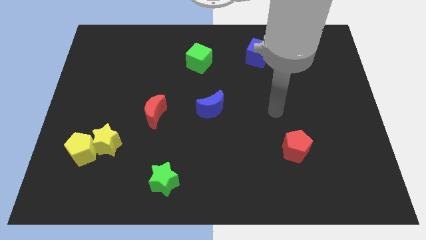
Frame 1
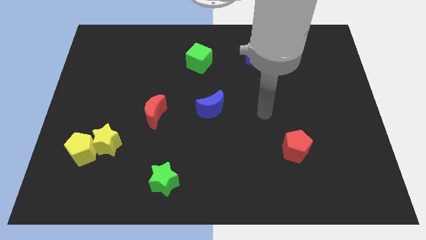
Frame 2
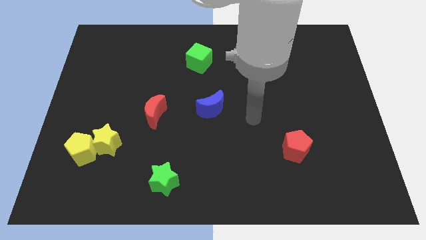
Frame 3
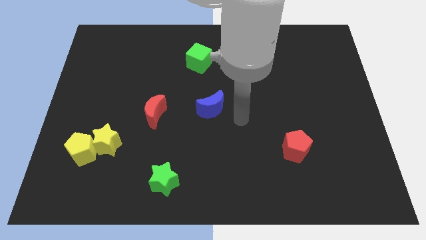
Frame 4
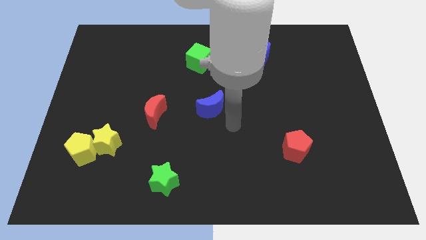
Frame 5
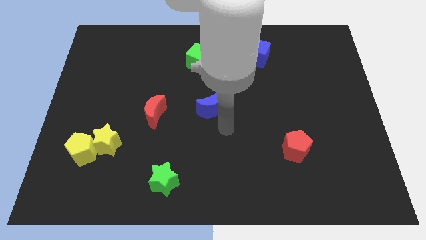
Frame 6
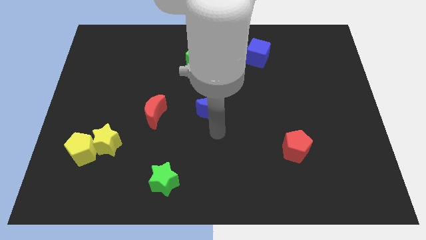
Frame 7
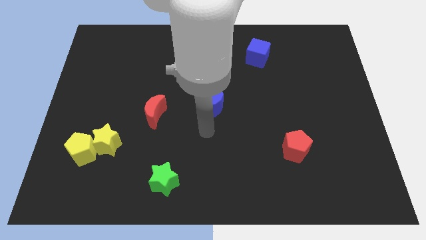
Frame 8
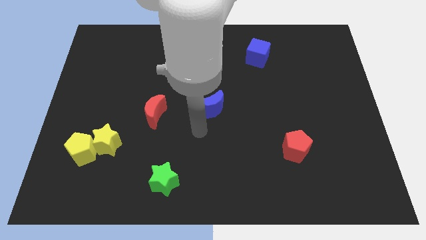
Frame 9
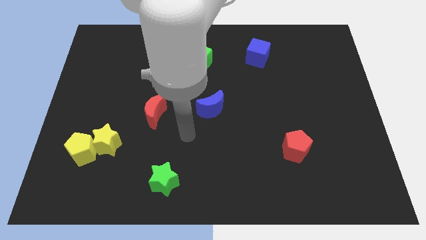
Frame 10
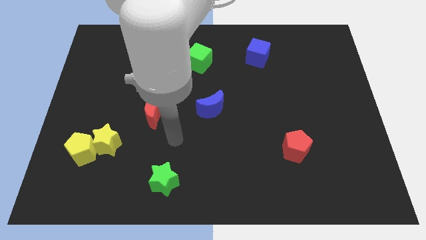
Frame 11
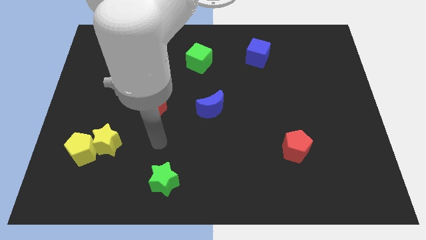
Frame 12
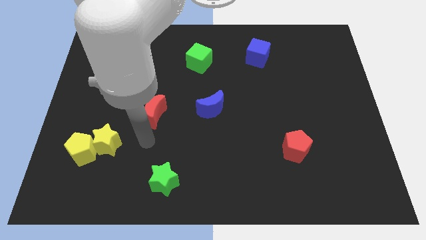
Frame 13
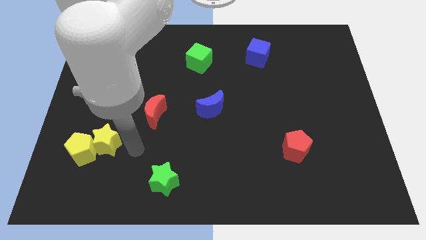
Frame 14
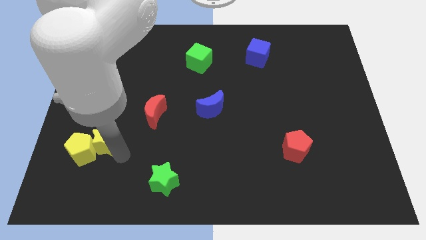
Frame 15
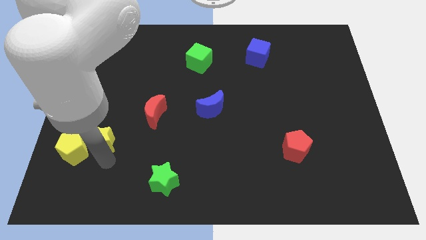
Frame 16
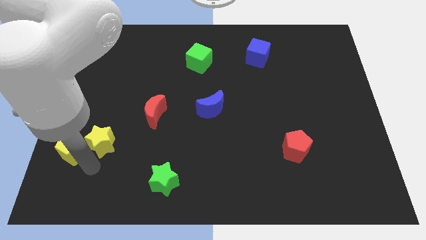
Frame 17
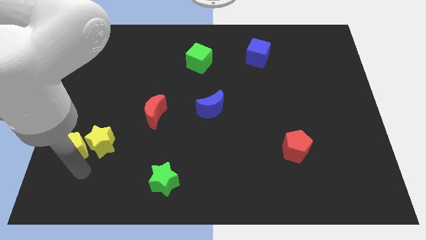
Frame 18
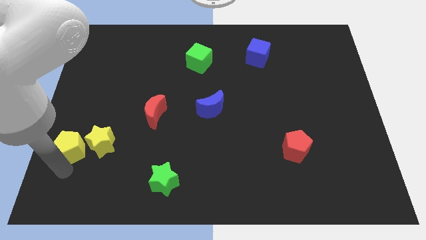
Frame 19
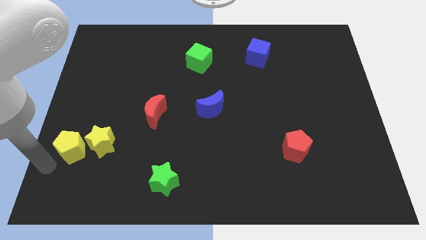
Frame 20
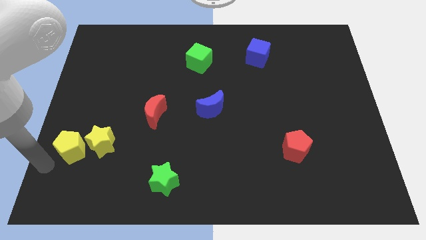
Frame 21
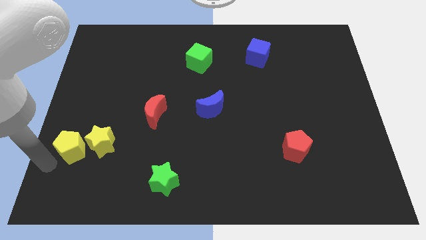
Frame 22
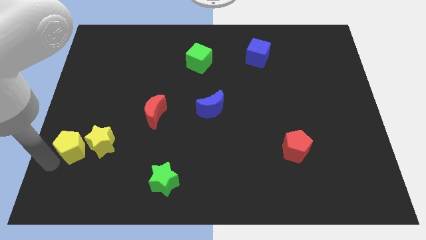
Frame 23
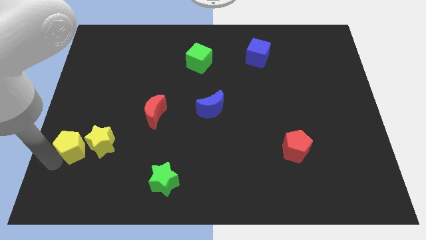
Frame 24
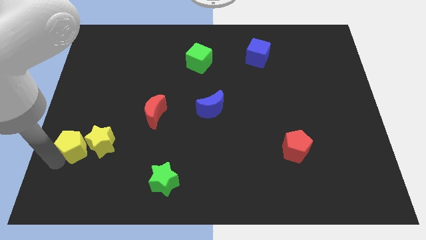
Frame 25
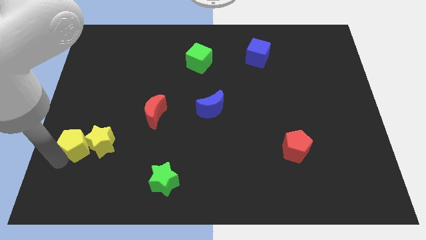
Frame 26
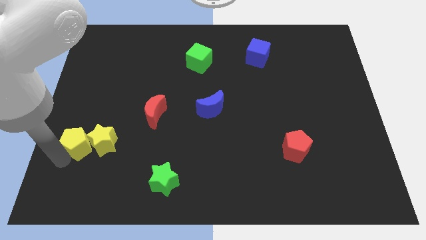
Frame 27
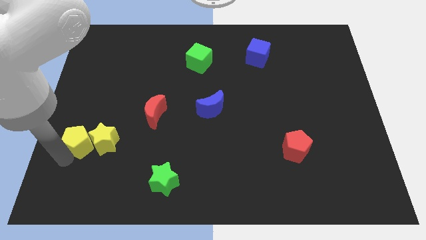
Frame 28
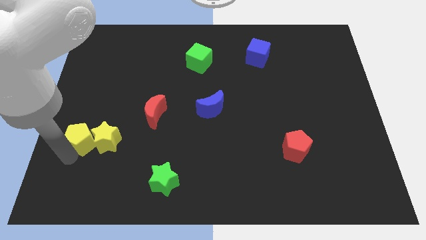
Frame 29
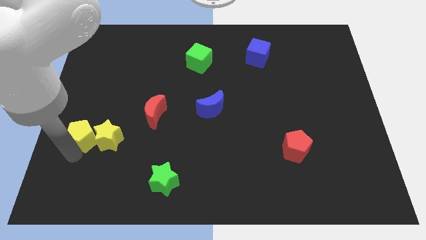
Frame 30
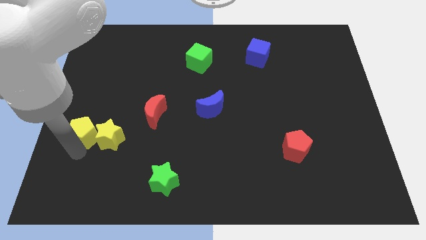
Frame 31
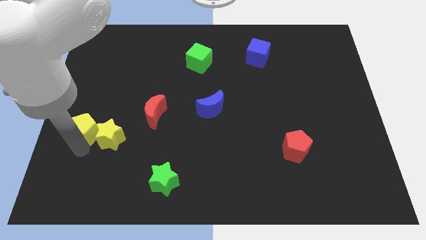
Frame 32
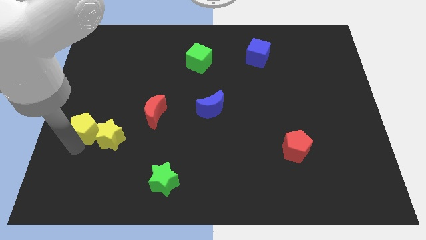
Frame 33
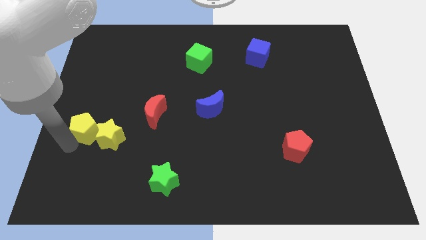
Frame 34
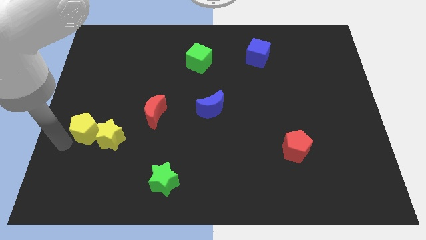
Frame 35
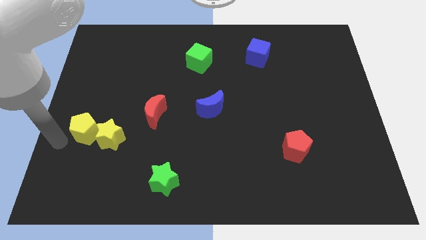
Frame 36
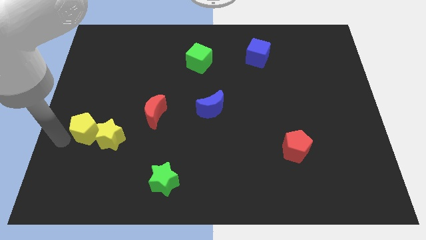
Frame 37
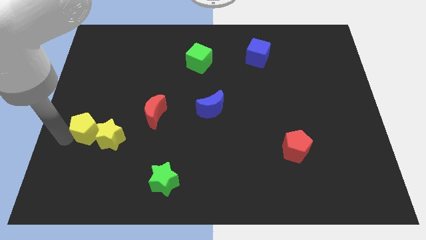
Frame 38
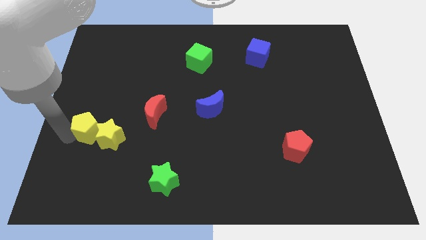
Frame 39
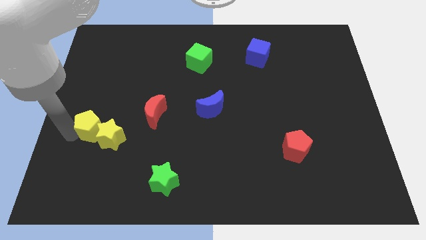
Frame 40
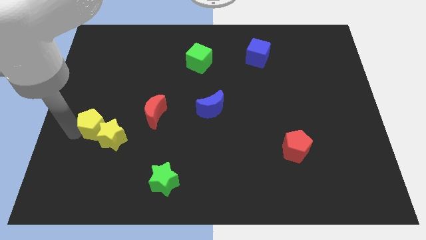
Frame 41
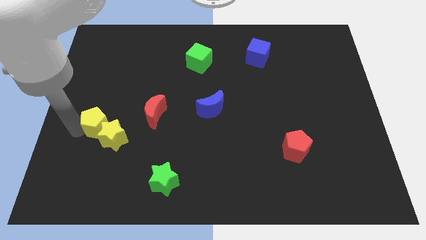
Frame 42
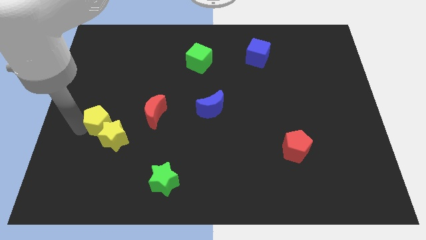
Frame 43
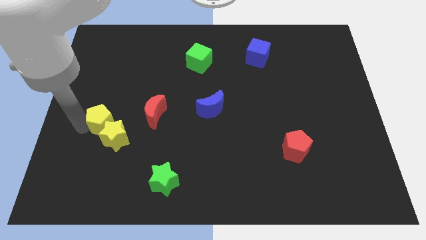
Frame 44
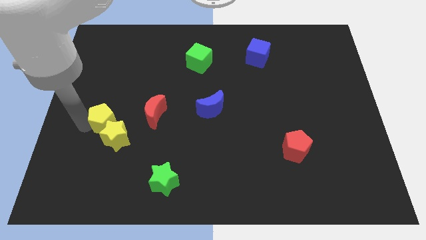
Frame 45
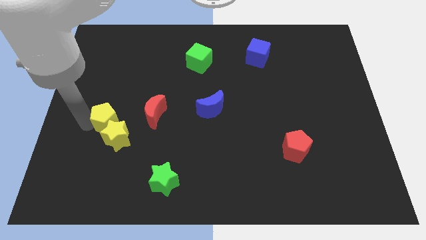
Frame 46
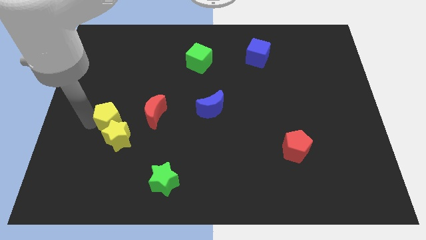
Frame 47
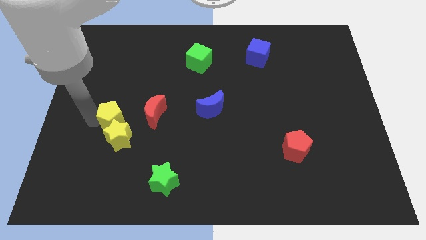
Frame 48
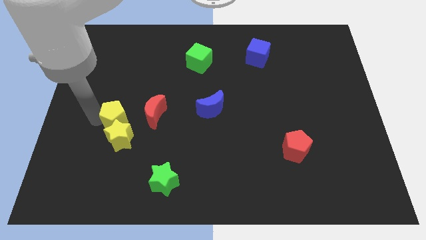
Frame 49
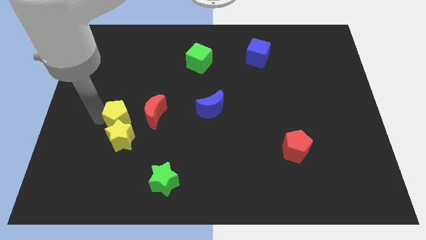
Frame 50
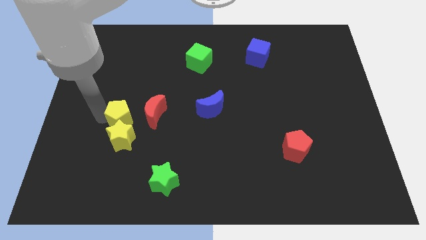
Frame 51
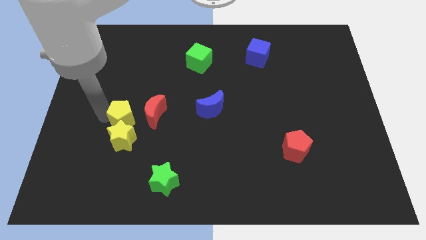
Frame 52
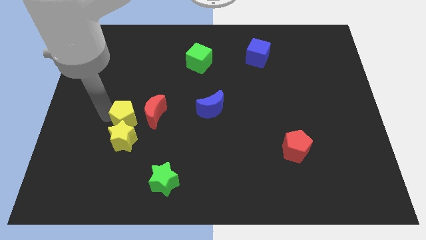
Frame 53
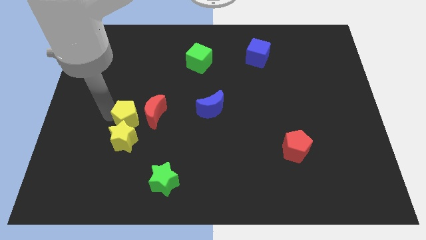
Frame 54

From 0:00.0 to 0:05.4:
put the yellow pentagon towards the red moon
